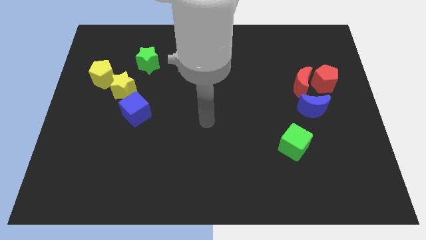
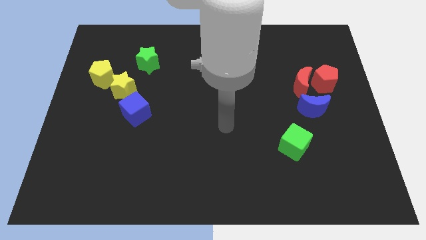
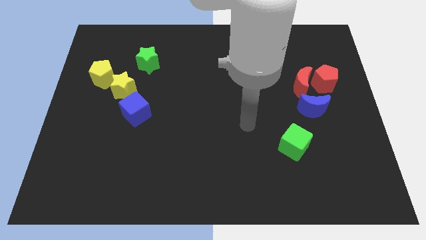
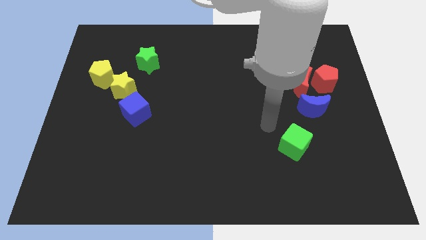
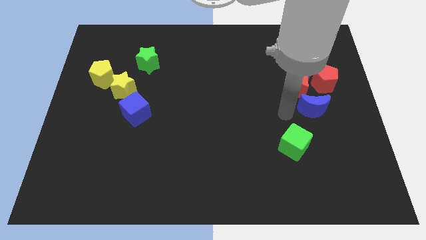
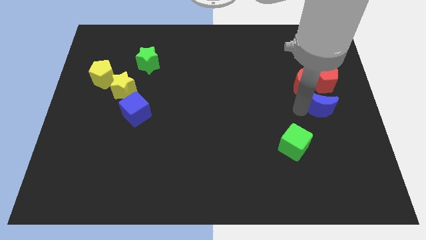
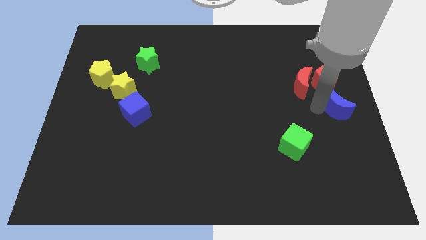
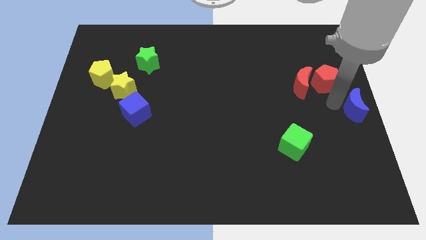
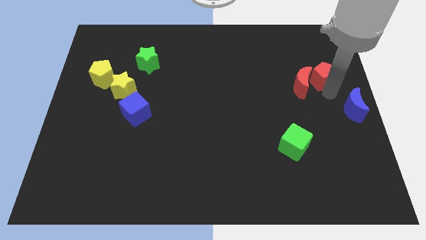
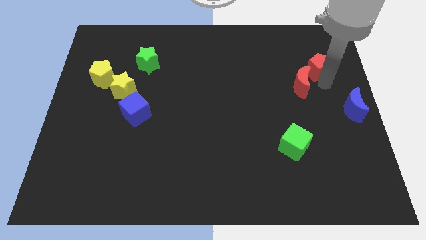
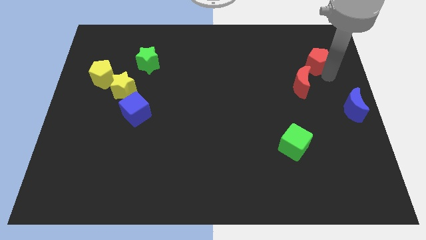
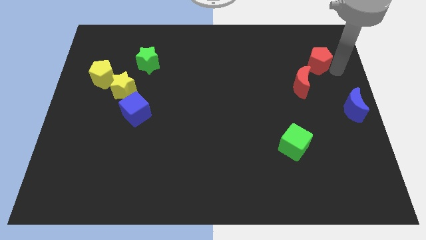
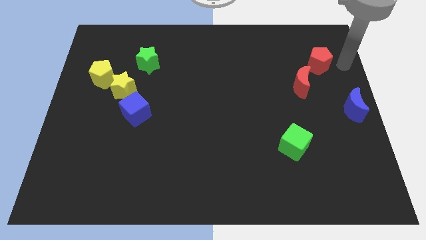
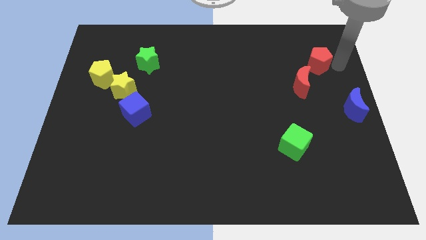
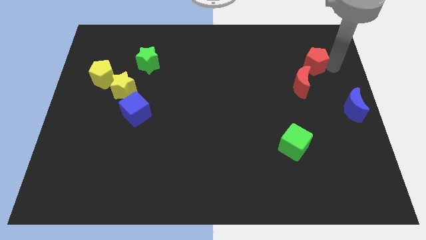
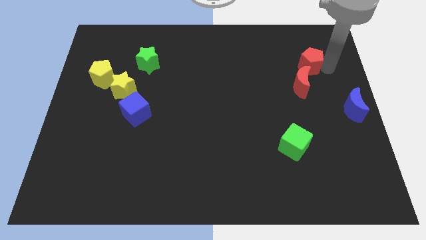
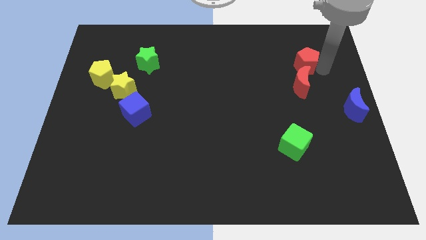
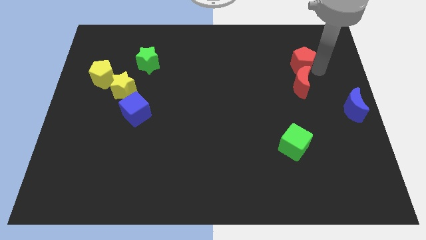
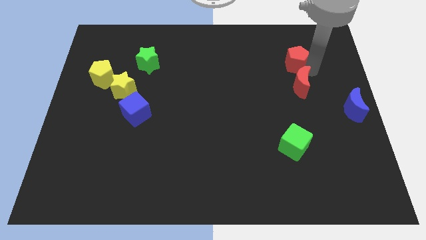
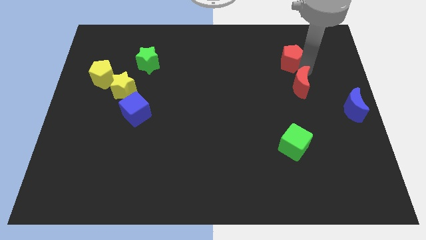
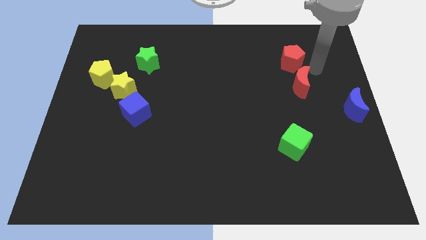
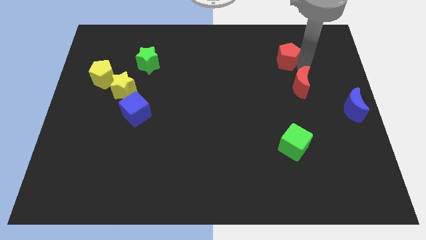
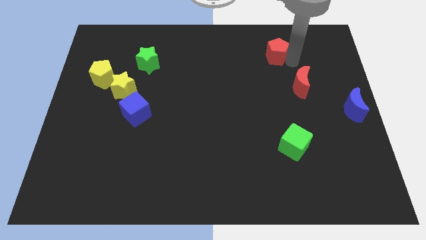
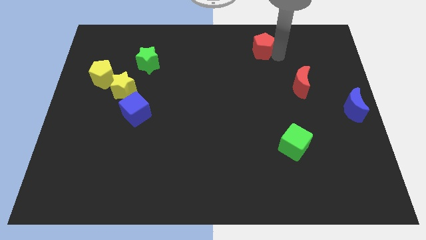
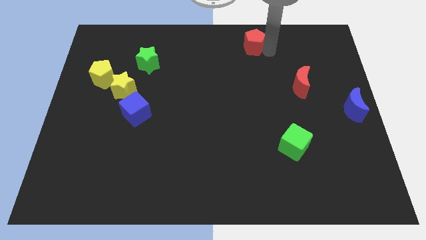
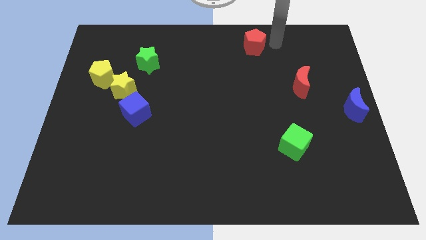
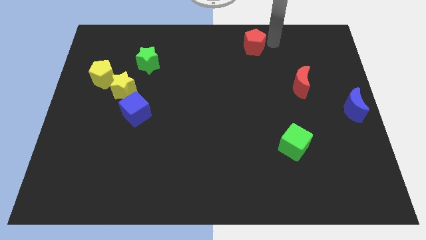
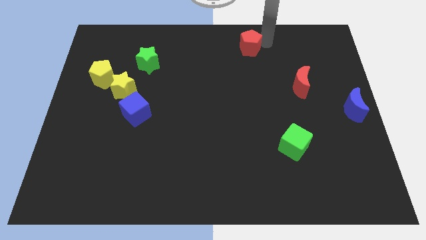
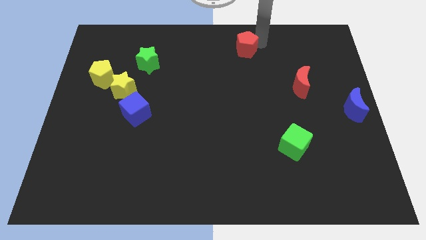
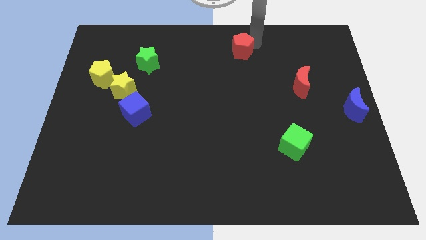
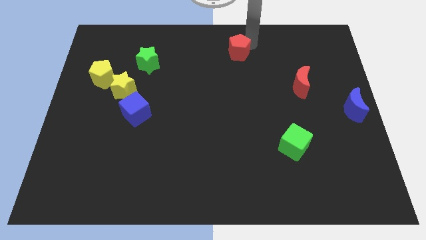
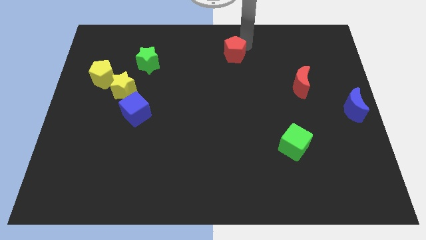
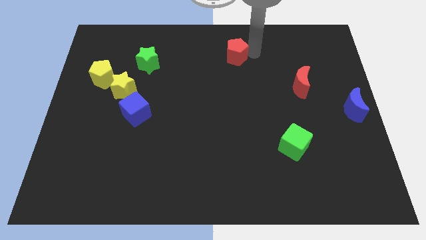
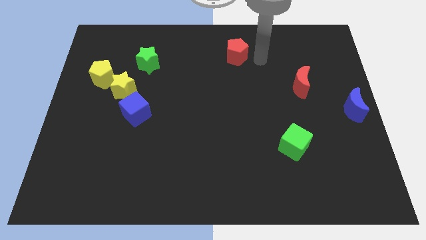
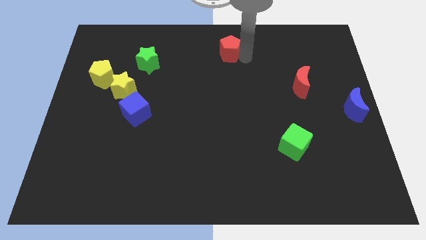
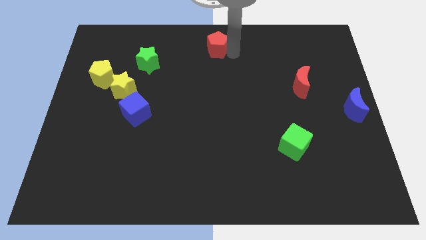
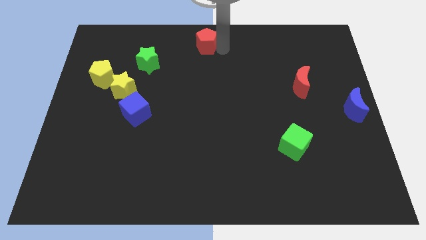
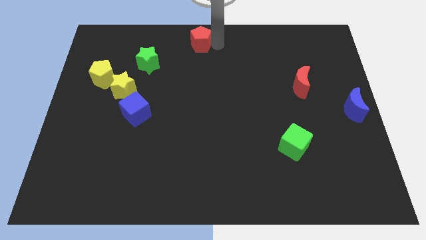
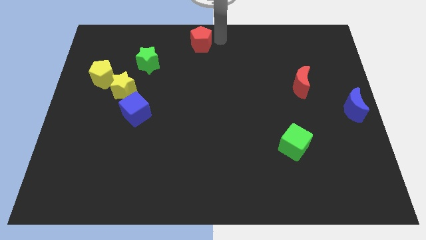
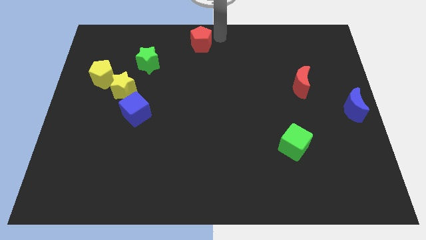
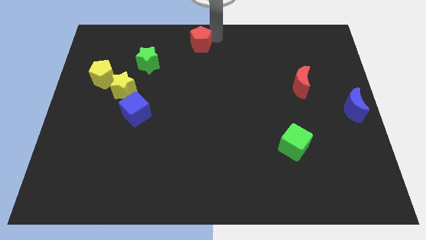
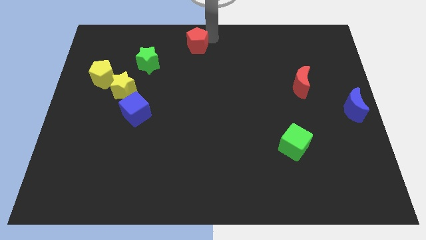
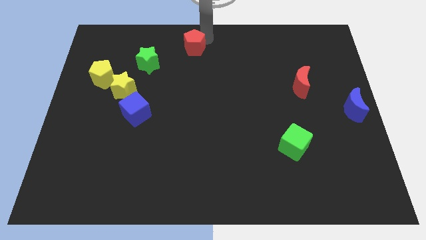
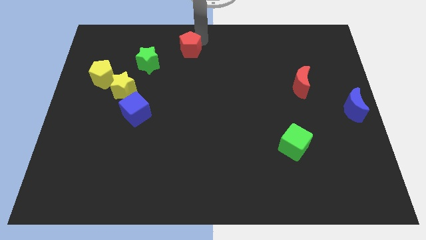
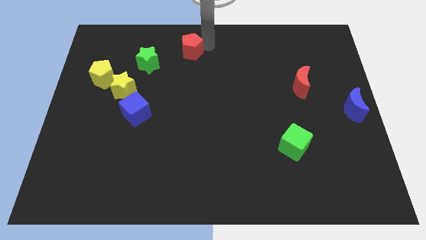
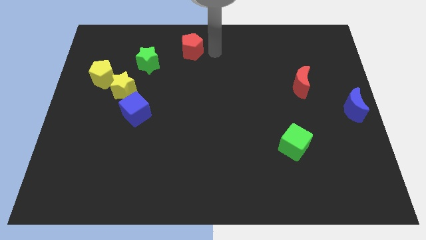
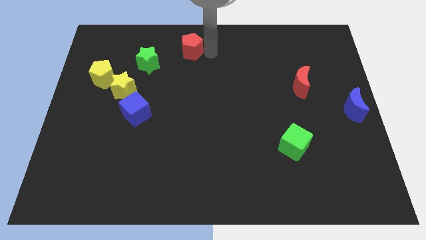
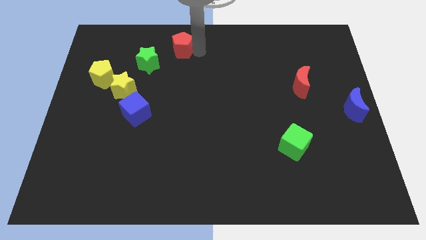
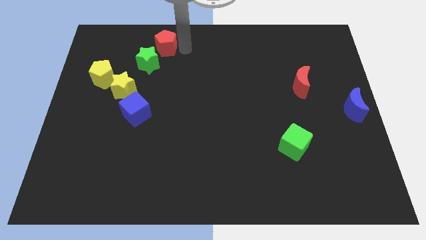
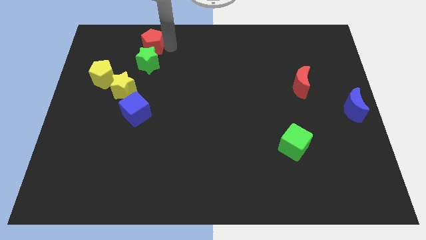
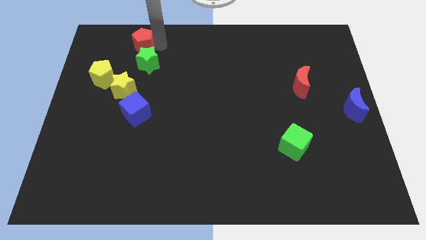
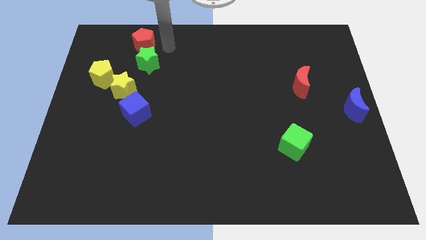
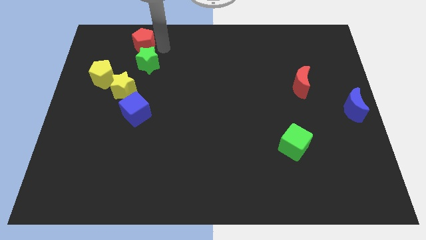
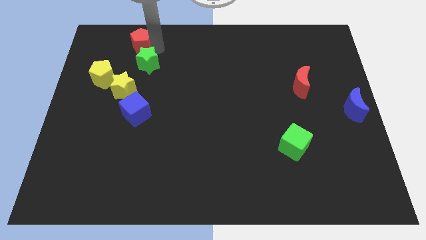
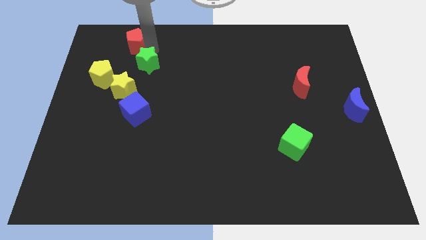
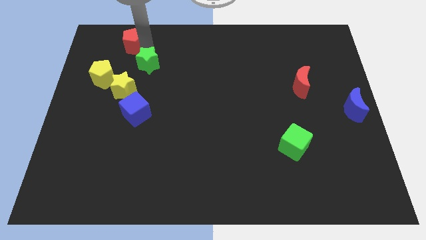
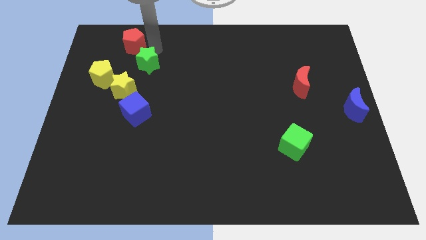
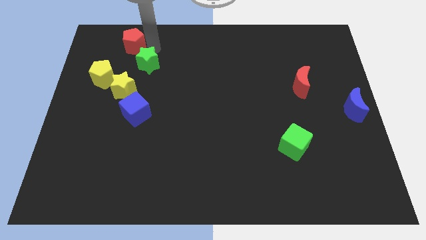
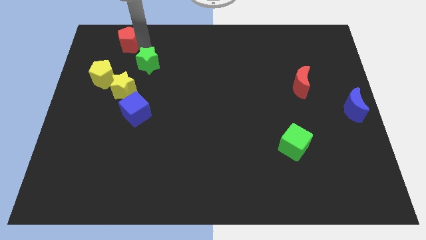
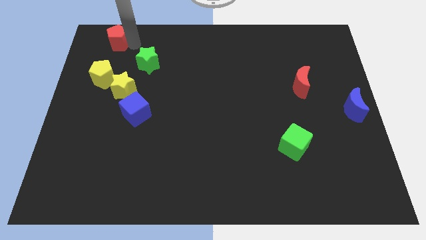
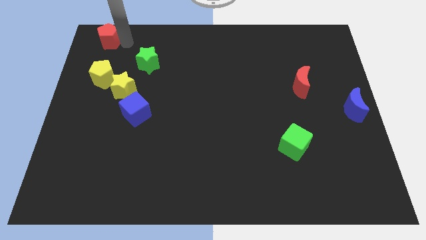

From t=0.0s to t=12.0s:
put the red pentagon to the upper left corner

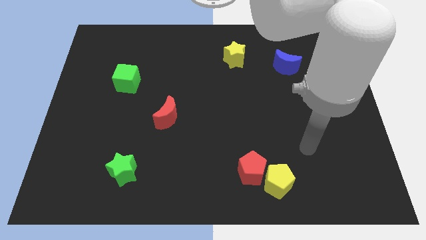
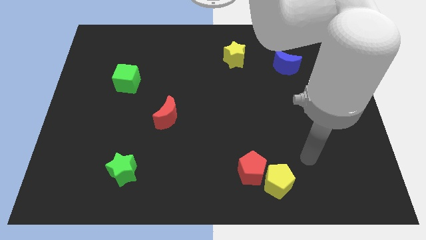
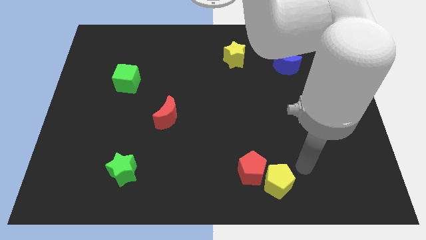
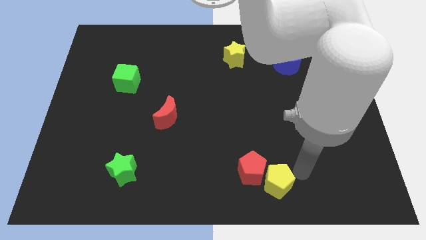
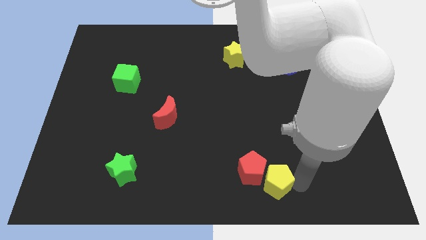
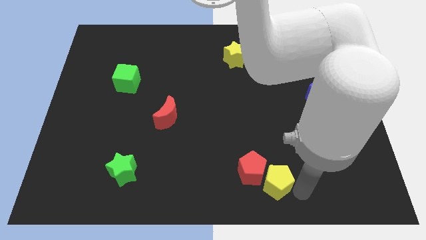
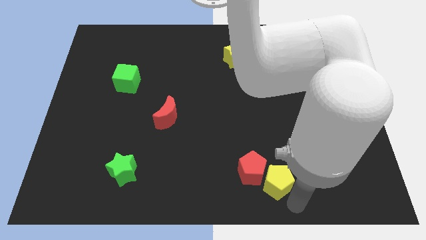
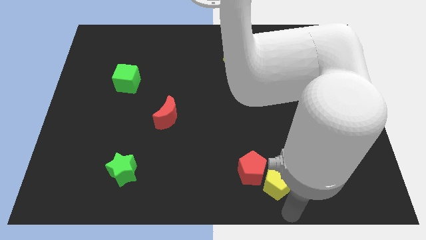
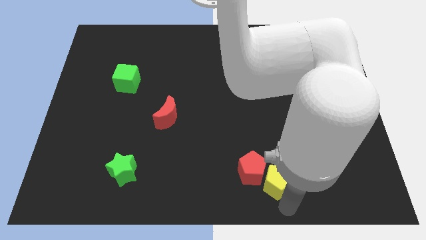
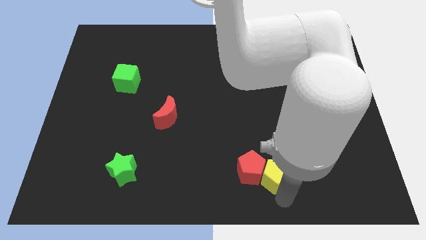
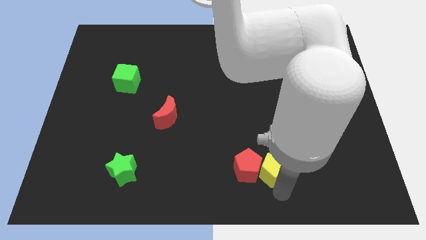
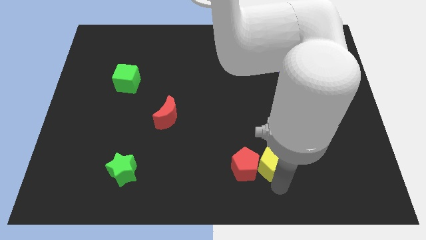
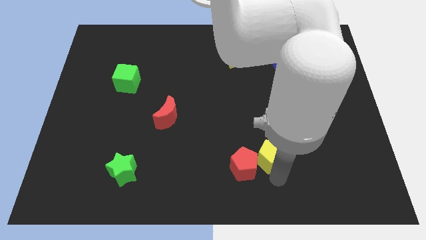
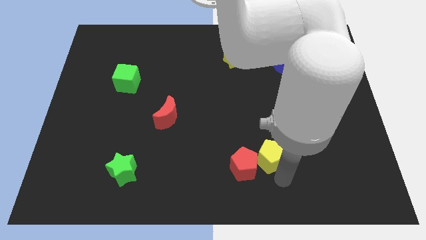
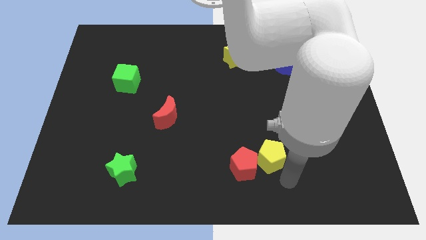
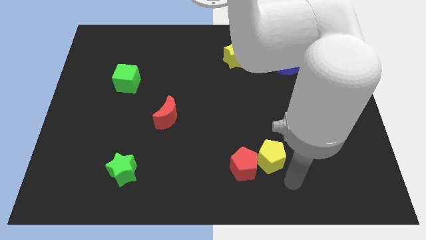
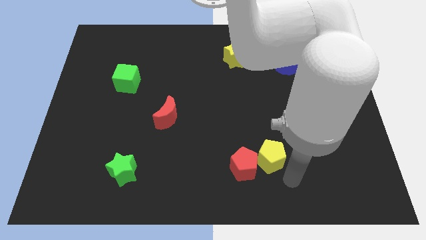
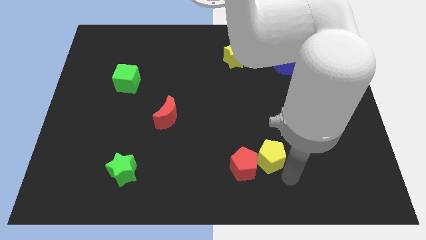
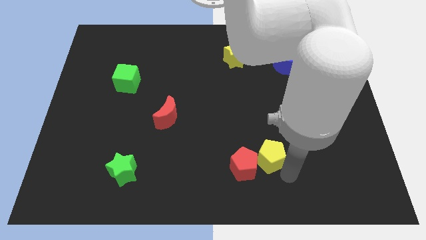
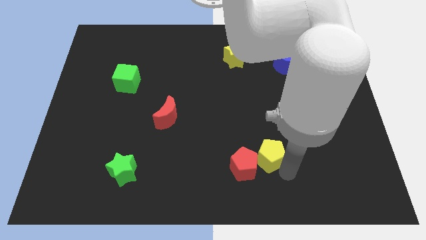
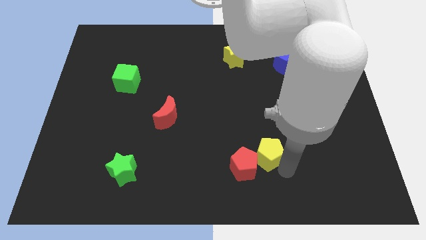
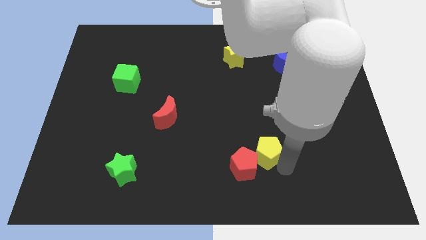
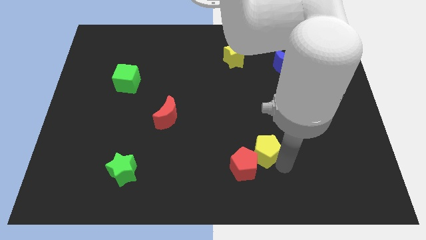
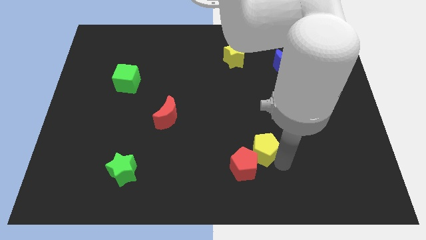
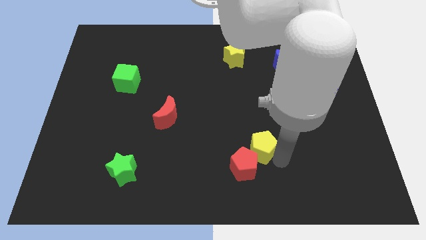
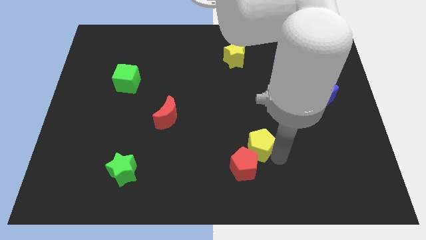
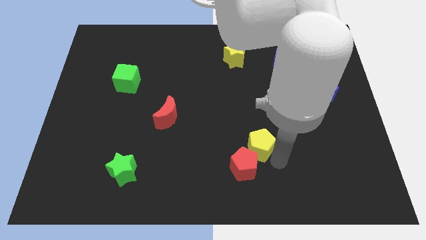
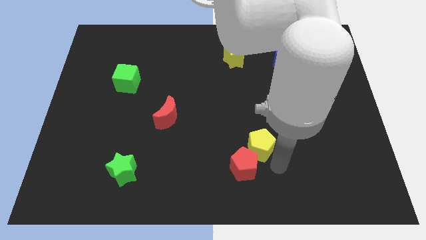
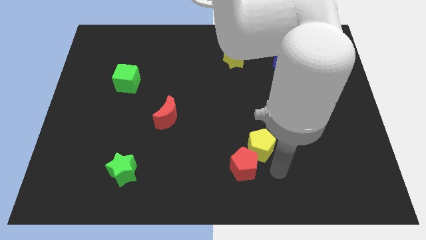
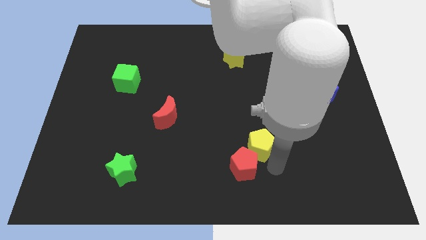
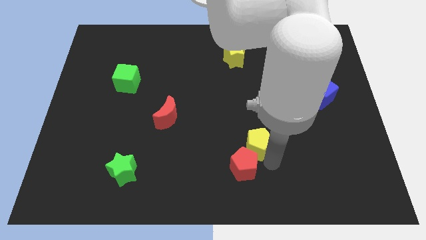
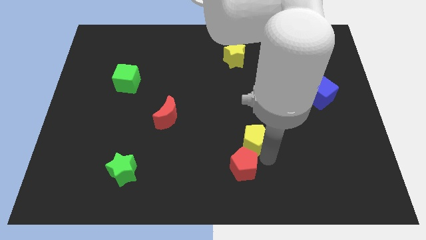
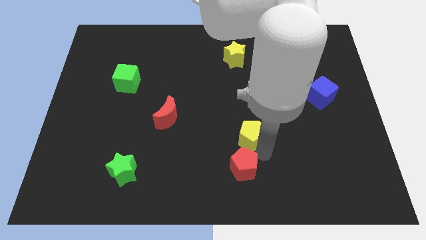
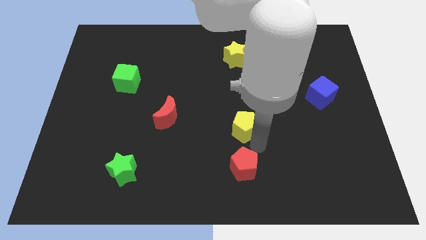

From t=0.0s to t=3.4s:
push the yellow pentagon to the center
